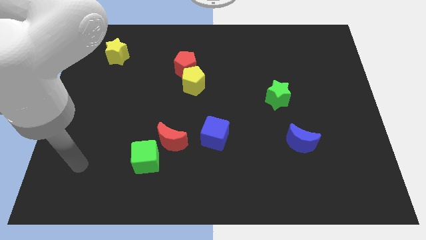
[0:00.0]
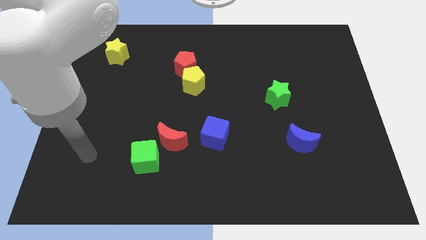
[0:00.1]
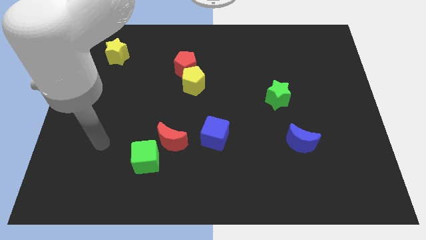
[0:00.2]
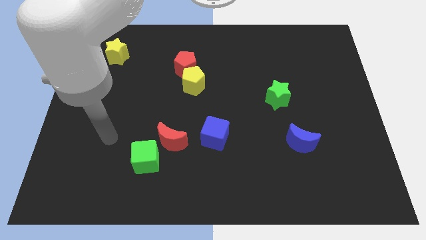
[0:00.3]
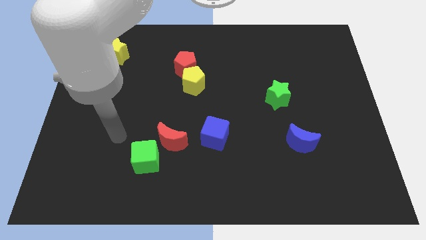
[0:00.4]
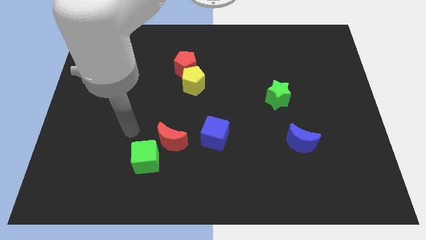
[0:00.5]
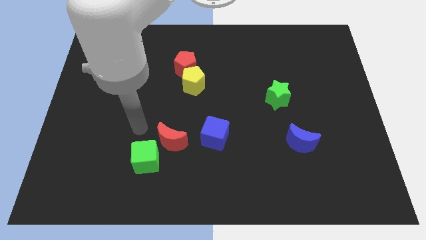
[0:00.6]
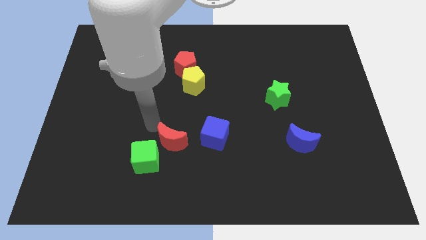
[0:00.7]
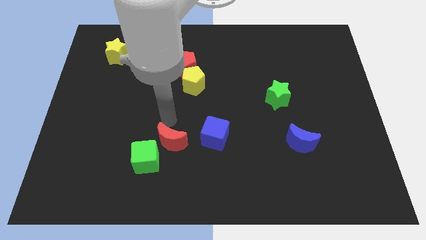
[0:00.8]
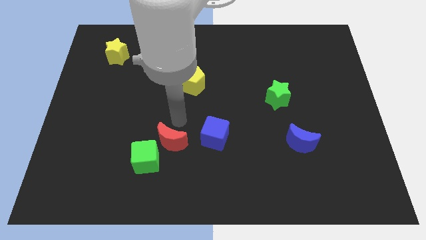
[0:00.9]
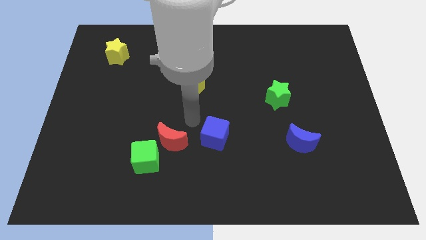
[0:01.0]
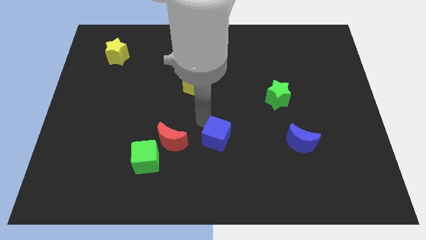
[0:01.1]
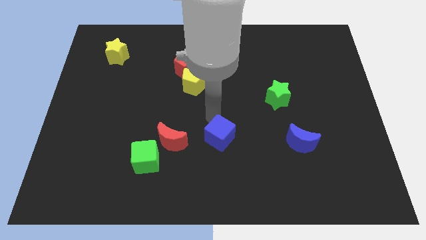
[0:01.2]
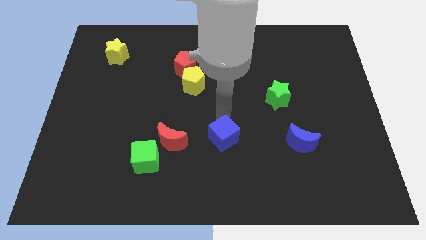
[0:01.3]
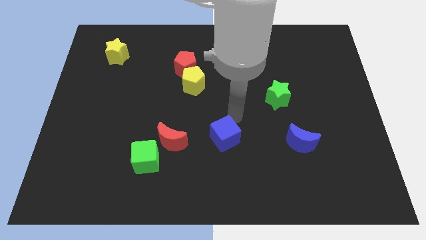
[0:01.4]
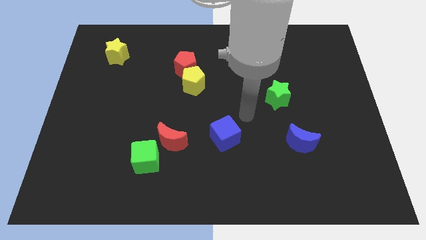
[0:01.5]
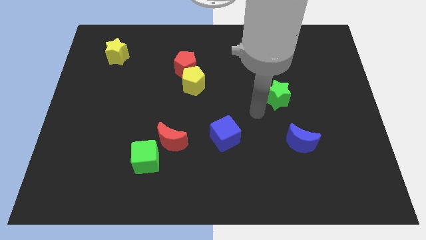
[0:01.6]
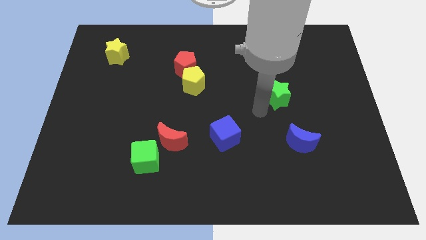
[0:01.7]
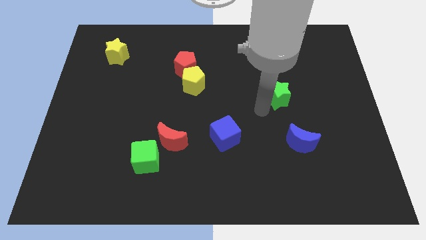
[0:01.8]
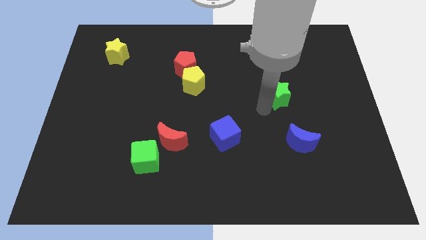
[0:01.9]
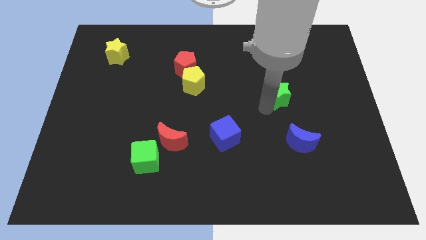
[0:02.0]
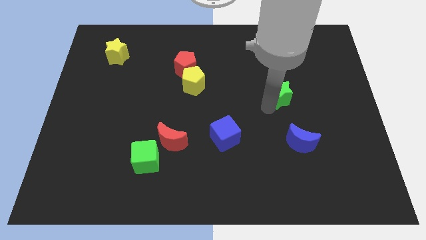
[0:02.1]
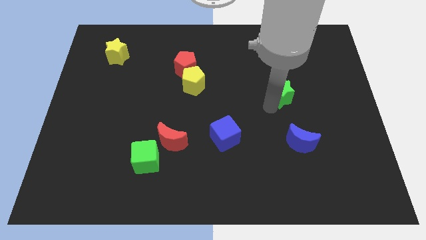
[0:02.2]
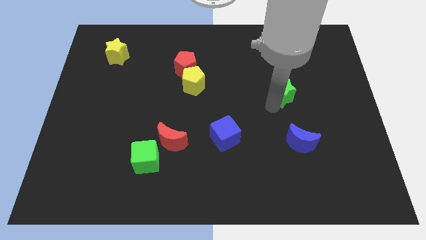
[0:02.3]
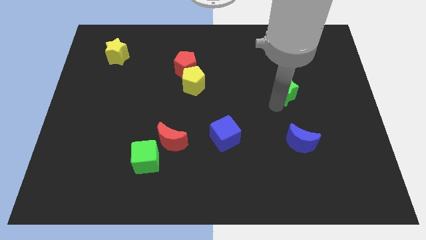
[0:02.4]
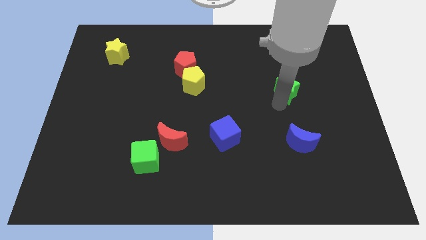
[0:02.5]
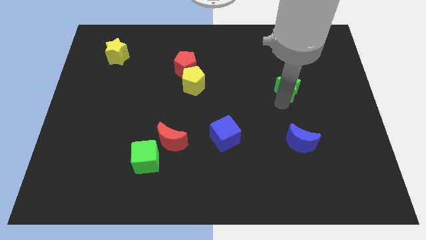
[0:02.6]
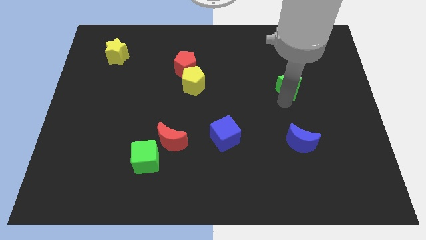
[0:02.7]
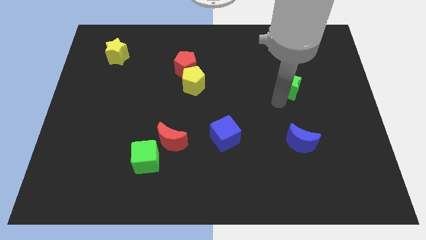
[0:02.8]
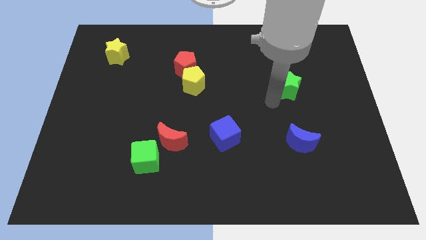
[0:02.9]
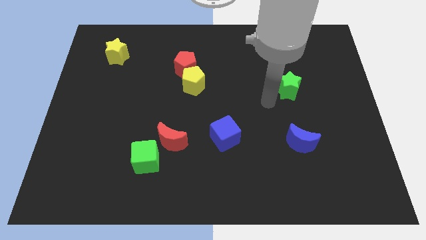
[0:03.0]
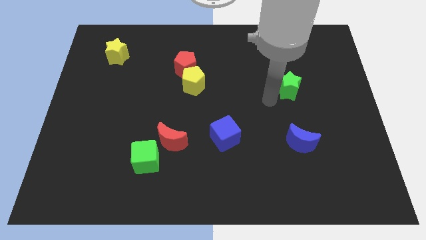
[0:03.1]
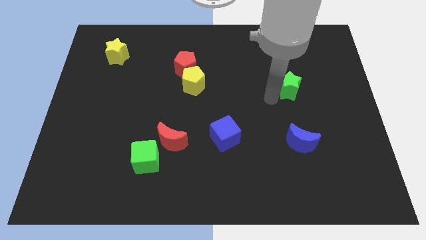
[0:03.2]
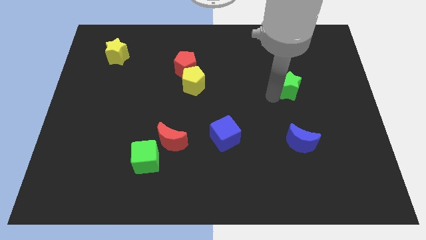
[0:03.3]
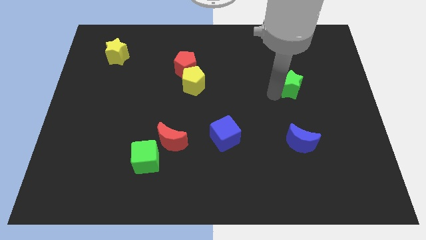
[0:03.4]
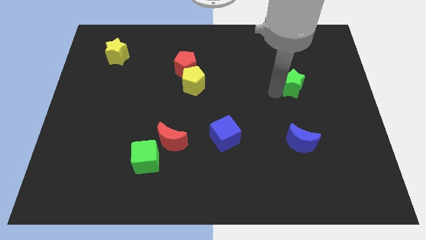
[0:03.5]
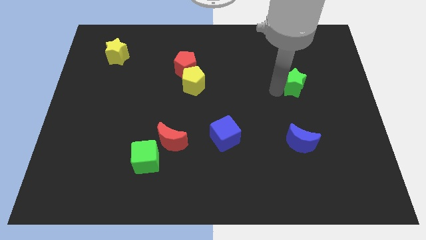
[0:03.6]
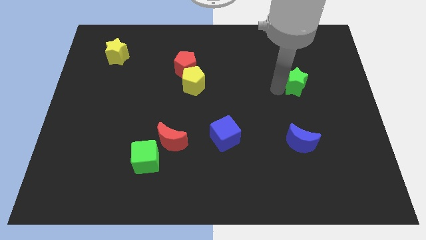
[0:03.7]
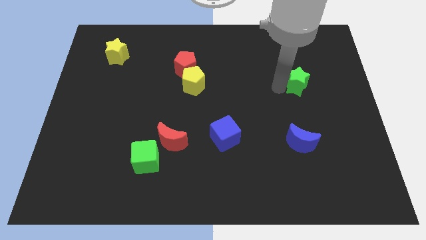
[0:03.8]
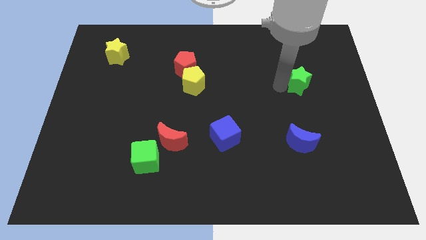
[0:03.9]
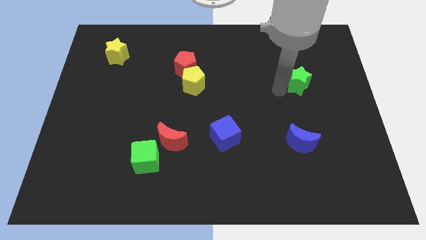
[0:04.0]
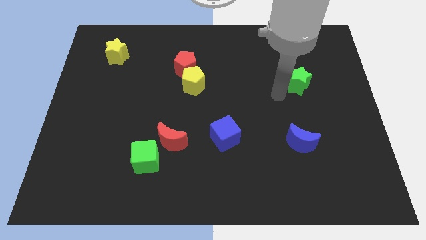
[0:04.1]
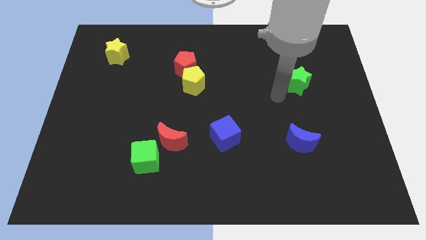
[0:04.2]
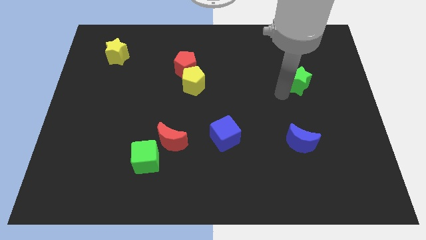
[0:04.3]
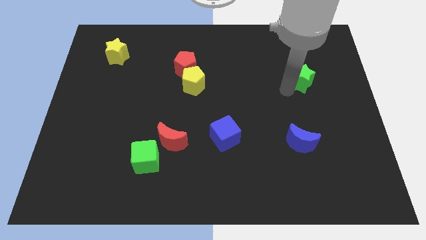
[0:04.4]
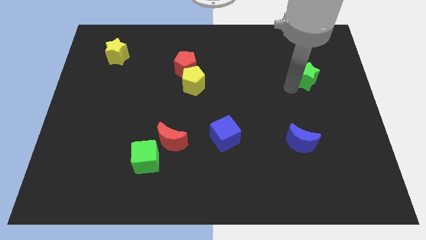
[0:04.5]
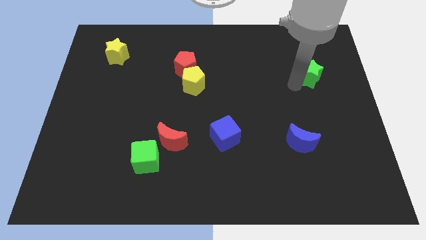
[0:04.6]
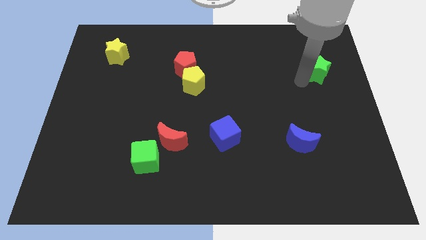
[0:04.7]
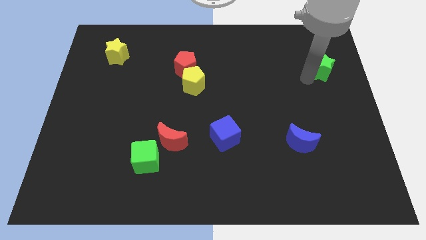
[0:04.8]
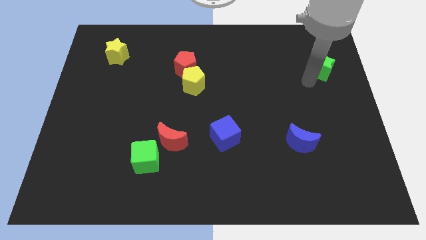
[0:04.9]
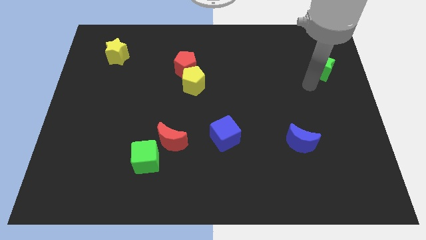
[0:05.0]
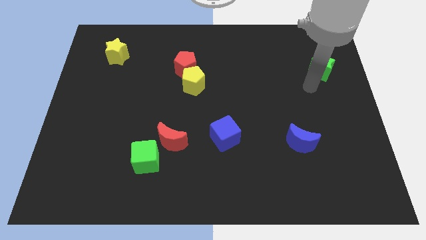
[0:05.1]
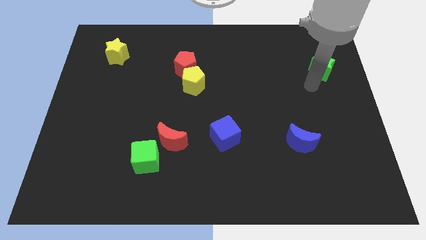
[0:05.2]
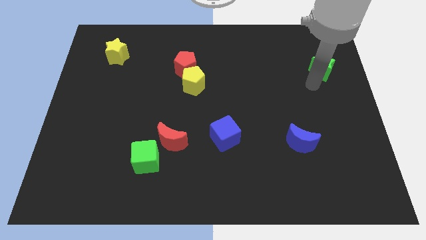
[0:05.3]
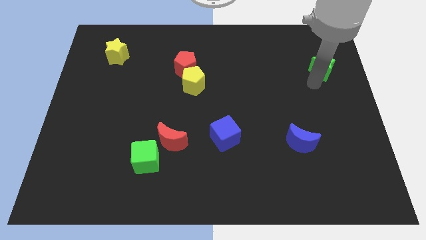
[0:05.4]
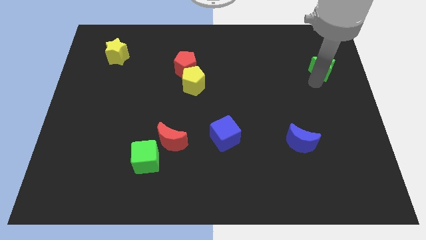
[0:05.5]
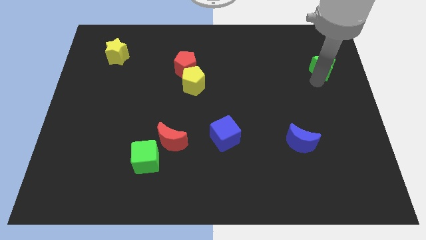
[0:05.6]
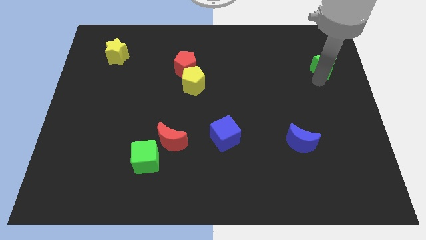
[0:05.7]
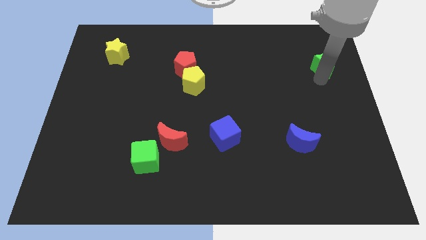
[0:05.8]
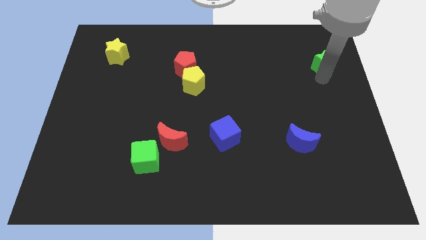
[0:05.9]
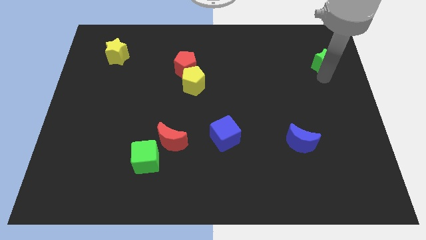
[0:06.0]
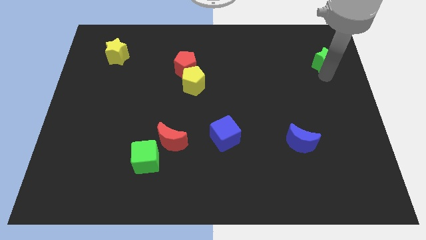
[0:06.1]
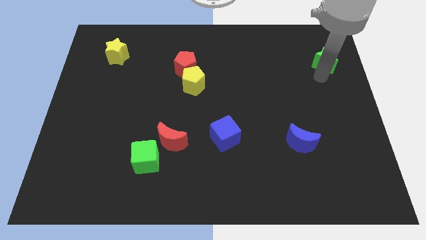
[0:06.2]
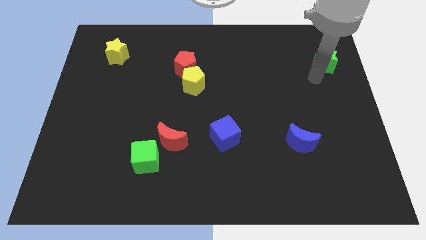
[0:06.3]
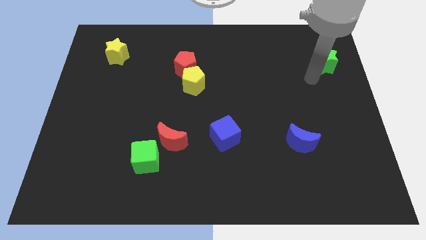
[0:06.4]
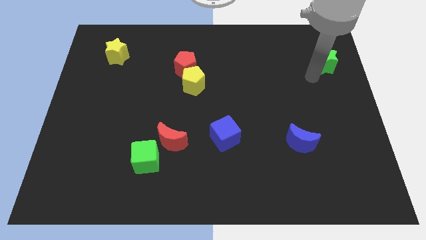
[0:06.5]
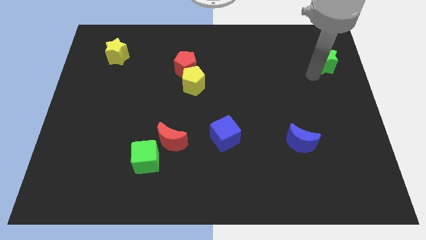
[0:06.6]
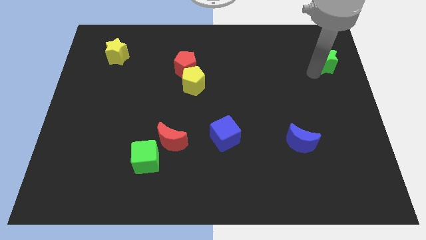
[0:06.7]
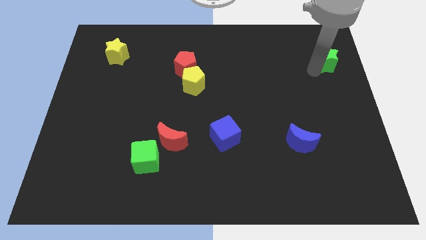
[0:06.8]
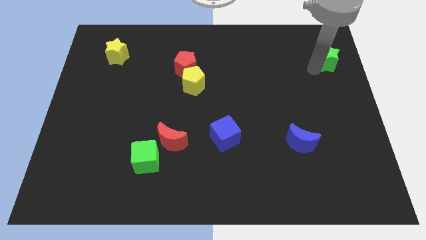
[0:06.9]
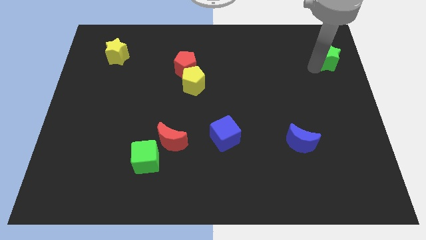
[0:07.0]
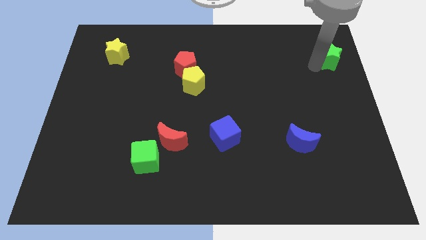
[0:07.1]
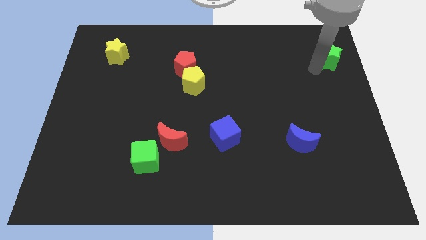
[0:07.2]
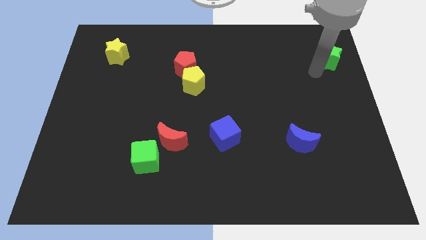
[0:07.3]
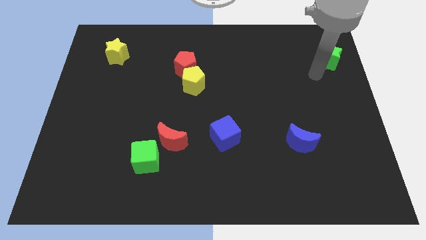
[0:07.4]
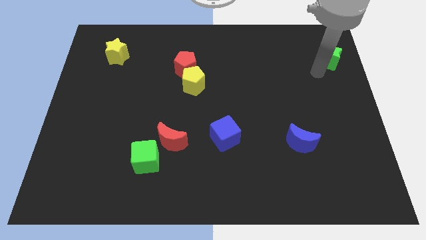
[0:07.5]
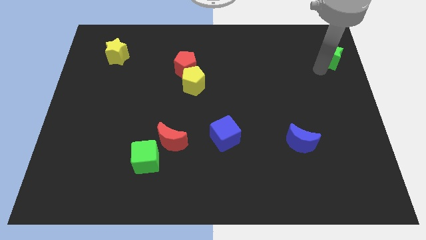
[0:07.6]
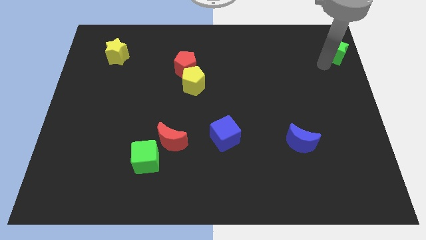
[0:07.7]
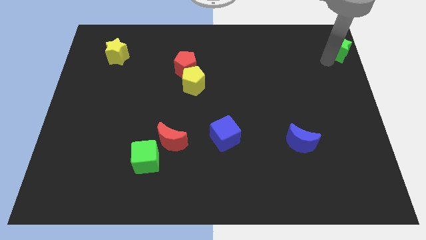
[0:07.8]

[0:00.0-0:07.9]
put the green star to the top right corner
